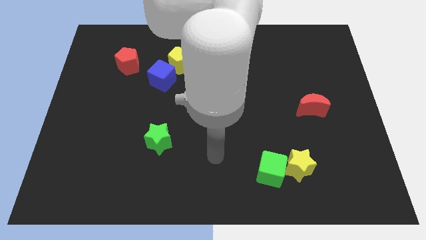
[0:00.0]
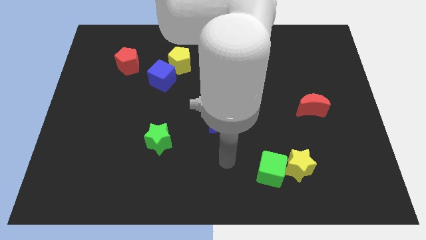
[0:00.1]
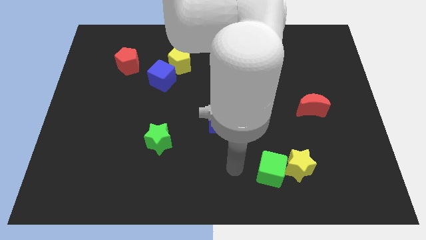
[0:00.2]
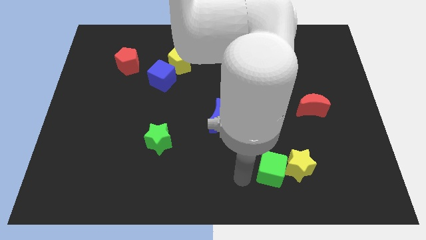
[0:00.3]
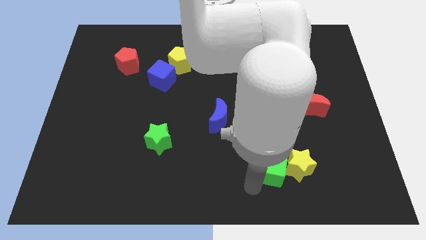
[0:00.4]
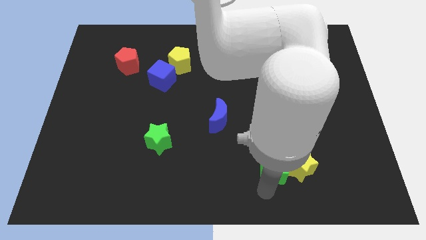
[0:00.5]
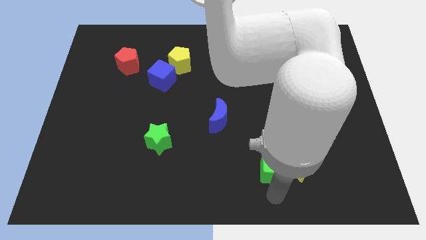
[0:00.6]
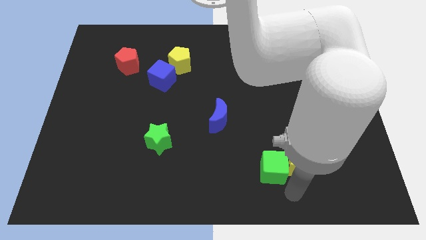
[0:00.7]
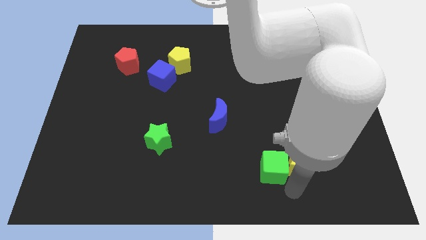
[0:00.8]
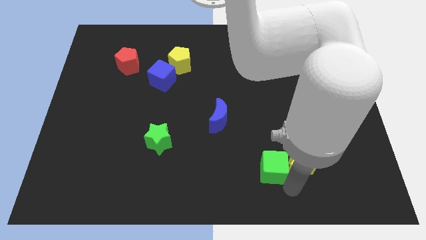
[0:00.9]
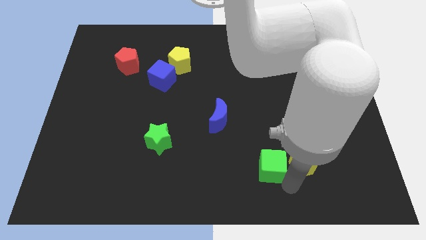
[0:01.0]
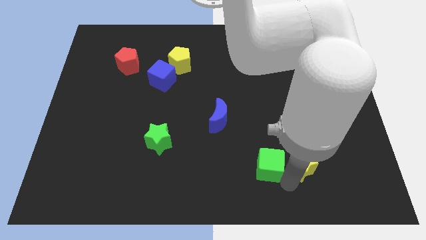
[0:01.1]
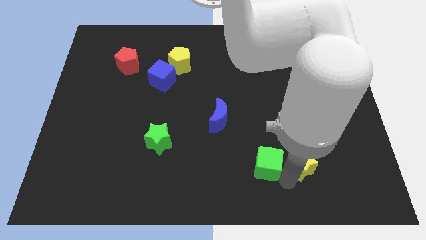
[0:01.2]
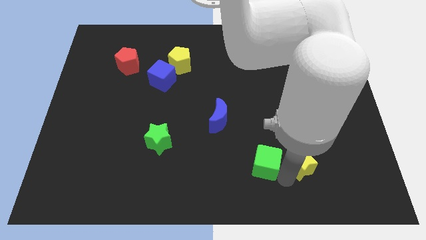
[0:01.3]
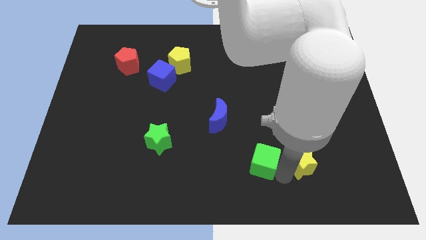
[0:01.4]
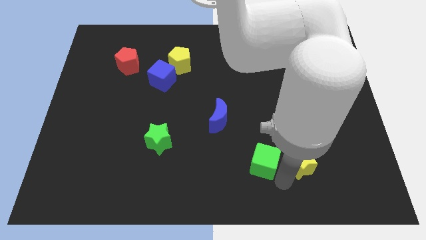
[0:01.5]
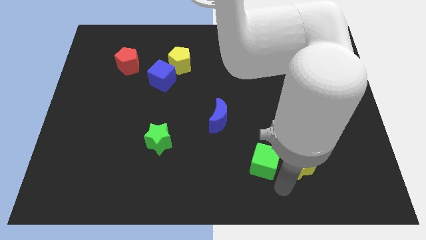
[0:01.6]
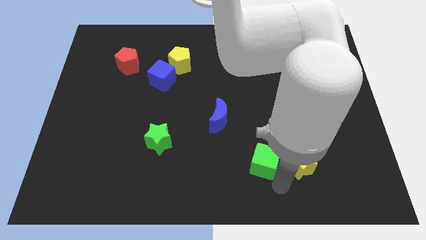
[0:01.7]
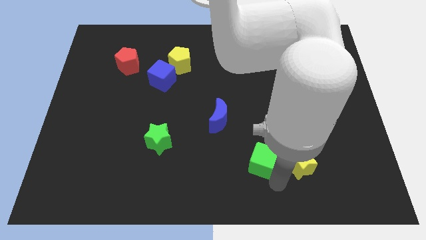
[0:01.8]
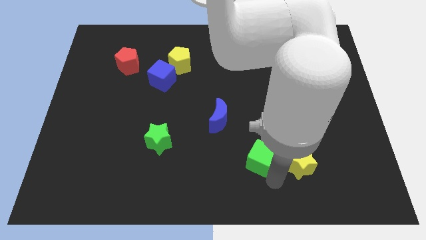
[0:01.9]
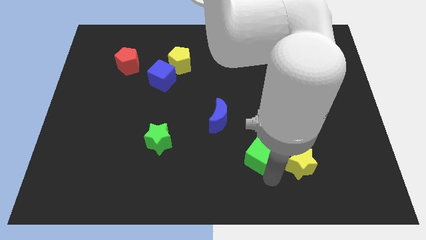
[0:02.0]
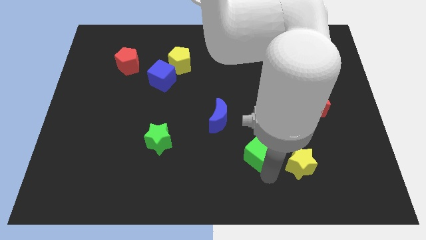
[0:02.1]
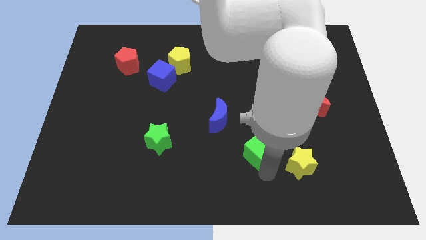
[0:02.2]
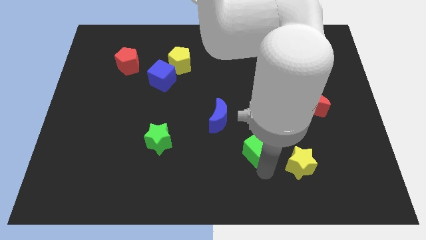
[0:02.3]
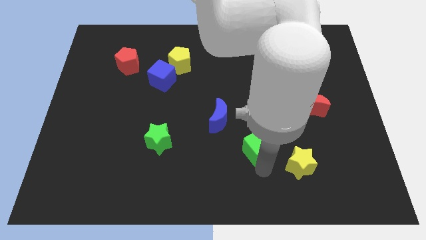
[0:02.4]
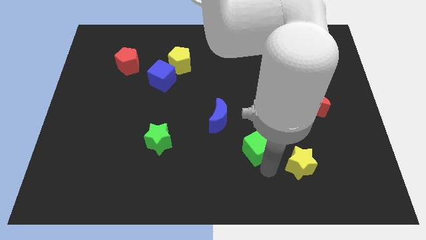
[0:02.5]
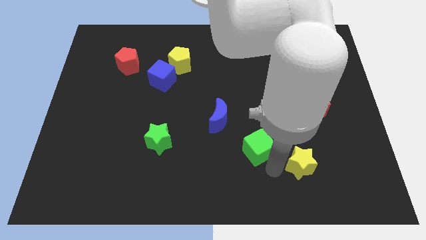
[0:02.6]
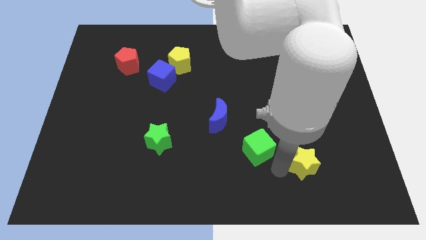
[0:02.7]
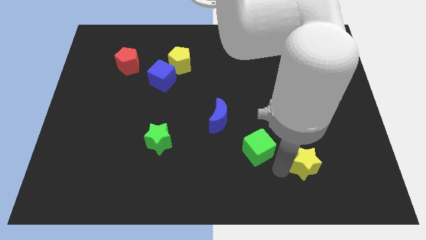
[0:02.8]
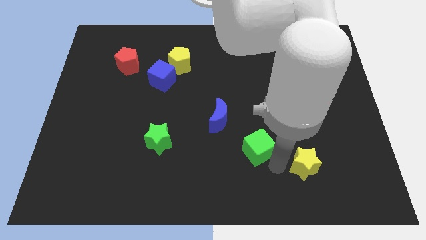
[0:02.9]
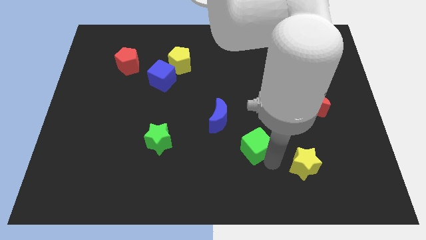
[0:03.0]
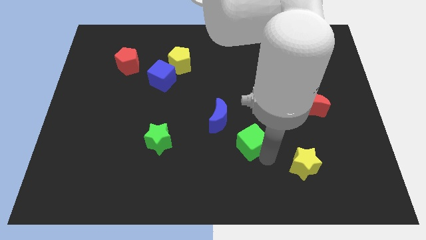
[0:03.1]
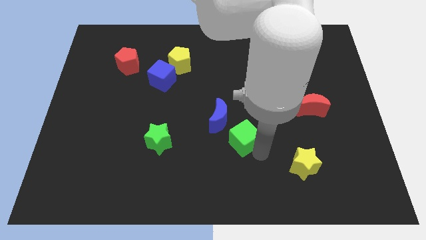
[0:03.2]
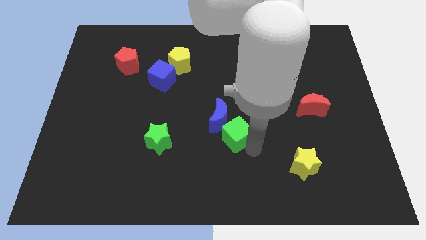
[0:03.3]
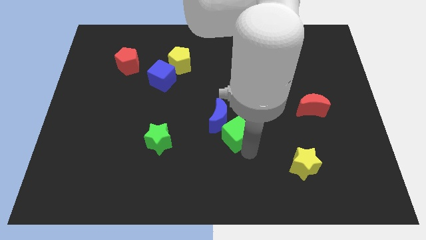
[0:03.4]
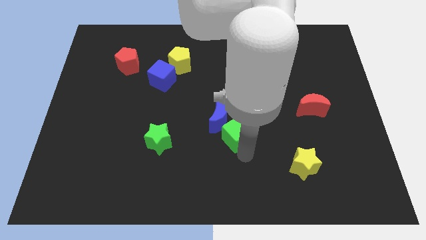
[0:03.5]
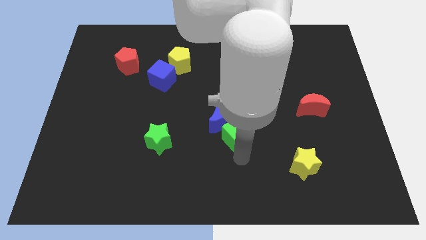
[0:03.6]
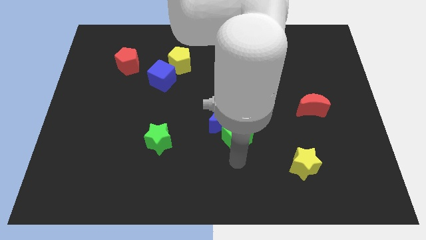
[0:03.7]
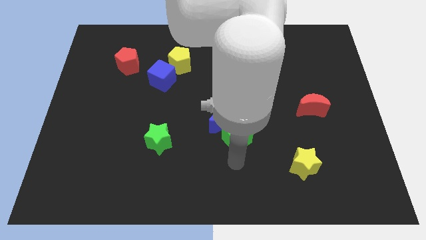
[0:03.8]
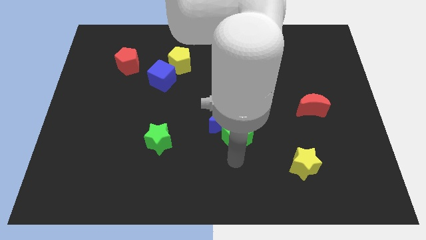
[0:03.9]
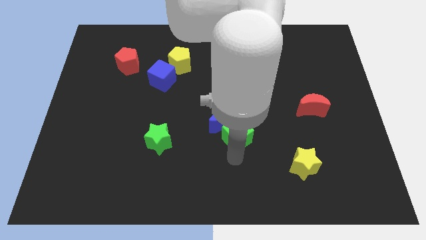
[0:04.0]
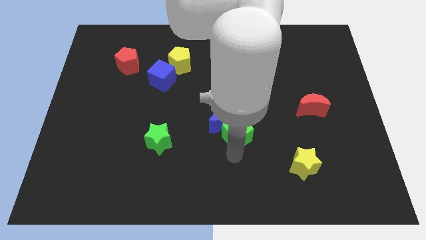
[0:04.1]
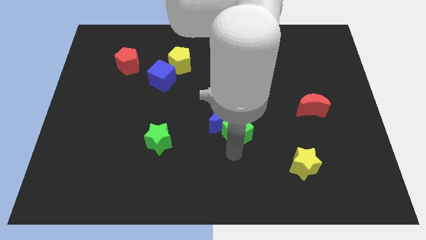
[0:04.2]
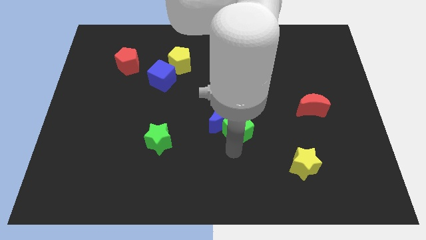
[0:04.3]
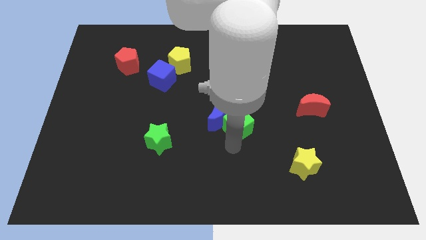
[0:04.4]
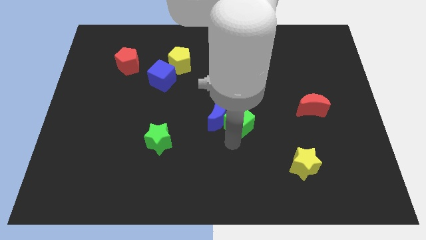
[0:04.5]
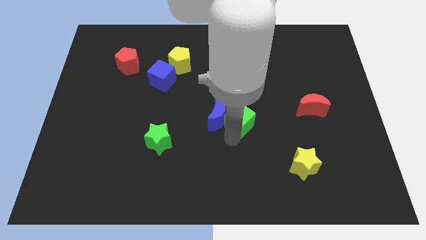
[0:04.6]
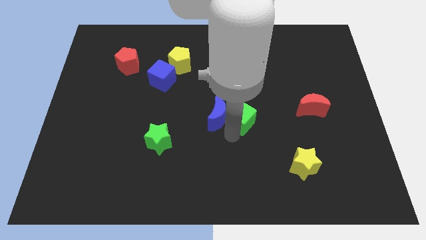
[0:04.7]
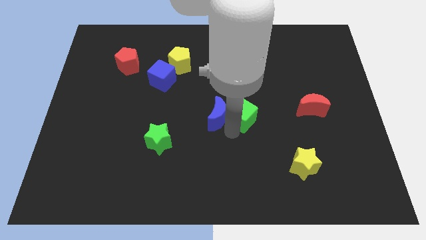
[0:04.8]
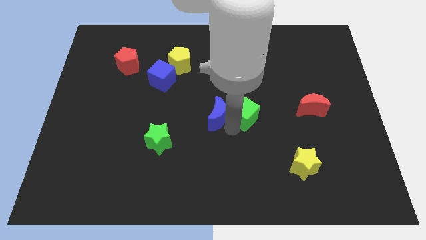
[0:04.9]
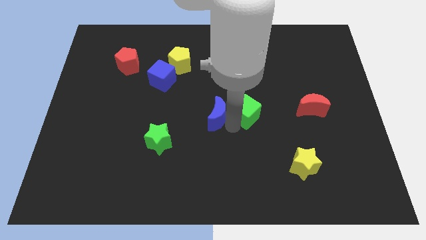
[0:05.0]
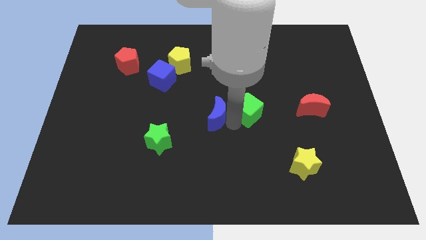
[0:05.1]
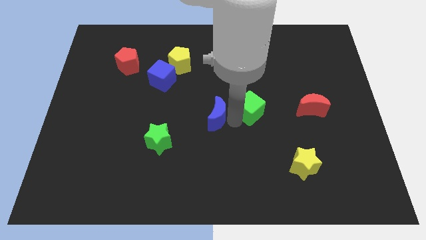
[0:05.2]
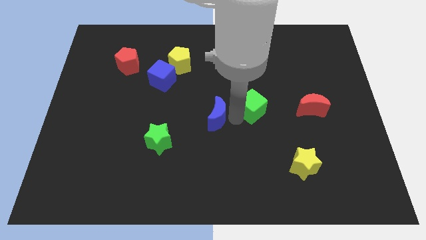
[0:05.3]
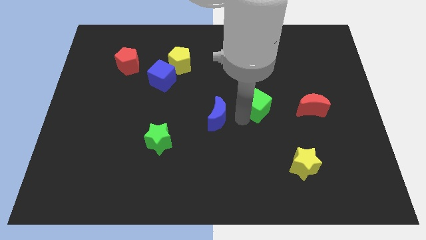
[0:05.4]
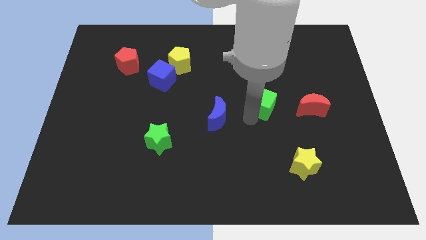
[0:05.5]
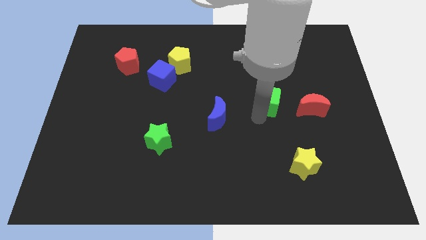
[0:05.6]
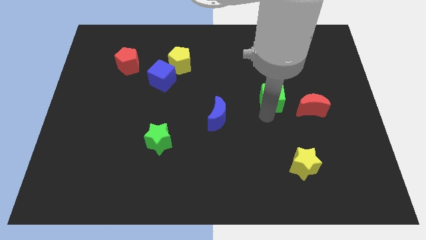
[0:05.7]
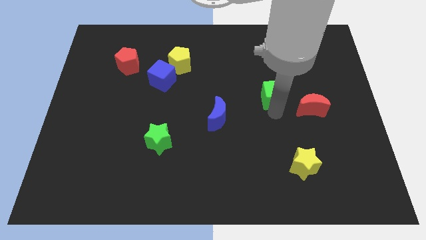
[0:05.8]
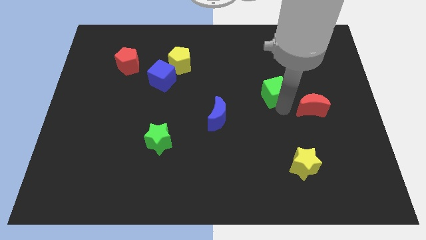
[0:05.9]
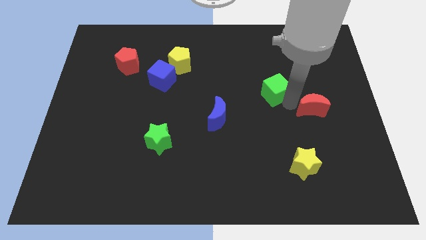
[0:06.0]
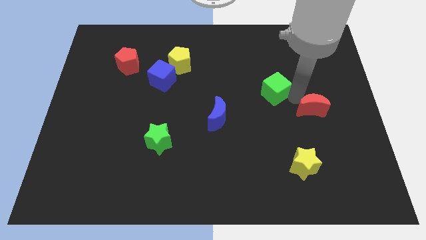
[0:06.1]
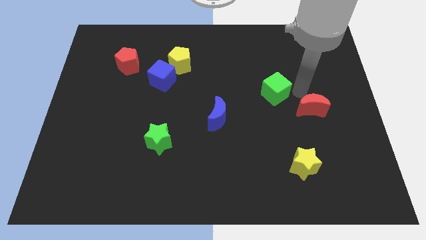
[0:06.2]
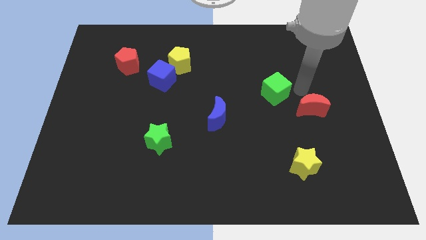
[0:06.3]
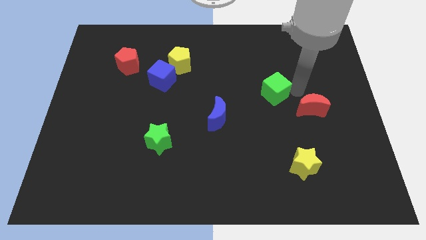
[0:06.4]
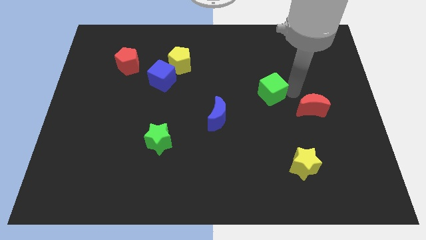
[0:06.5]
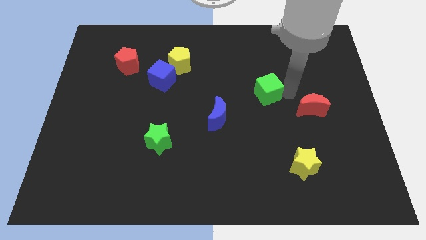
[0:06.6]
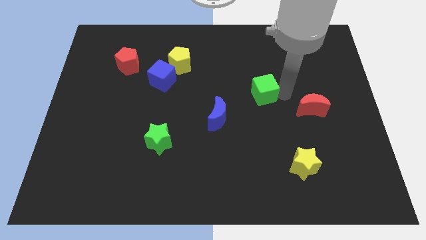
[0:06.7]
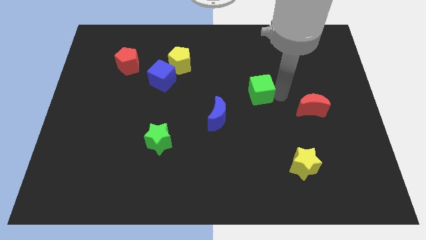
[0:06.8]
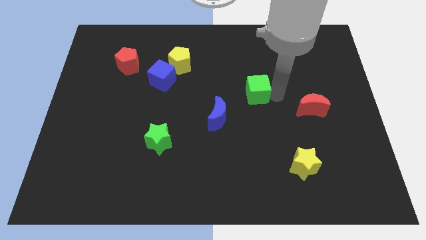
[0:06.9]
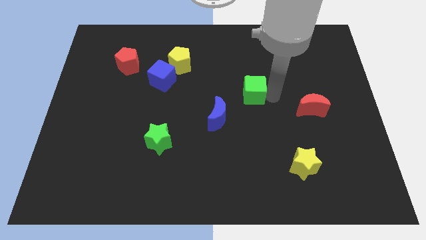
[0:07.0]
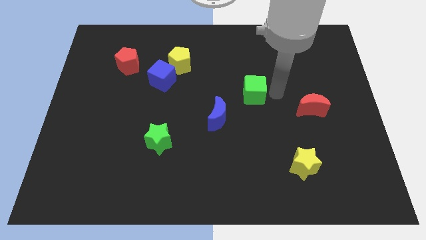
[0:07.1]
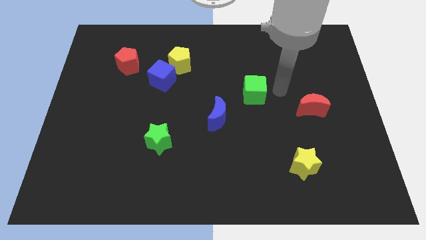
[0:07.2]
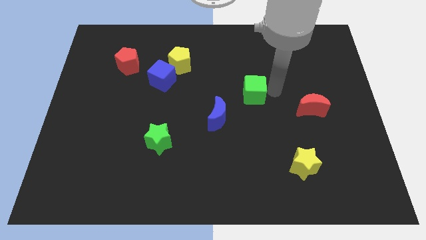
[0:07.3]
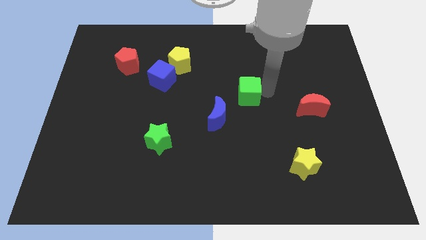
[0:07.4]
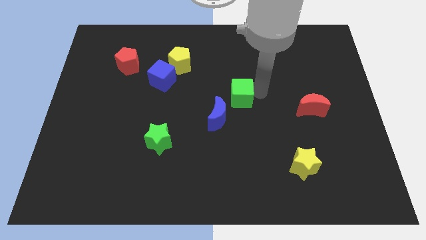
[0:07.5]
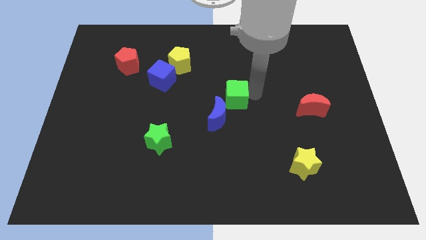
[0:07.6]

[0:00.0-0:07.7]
move the green cube above the blue moon
